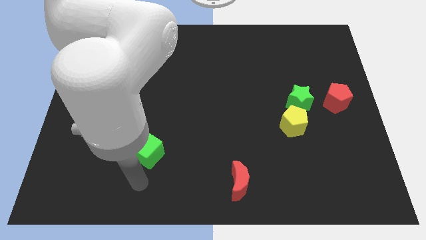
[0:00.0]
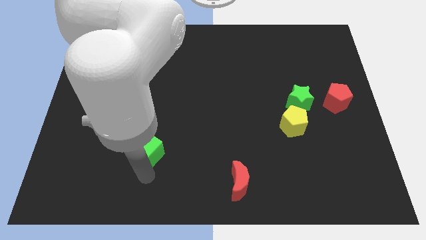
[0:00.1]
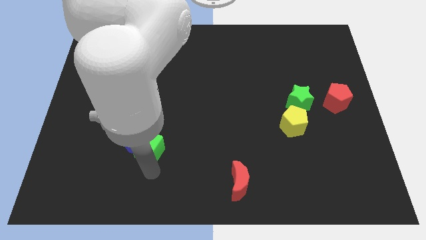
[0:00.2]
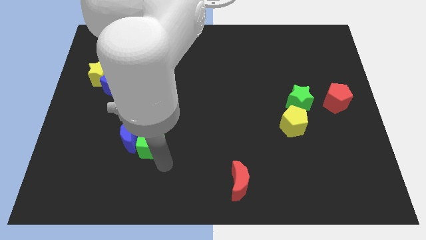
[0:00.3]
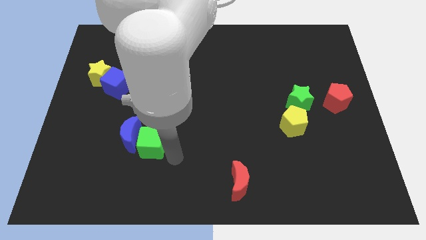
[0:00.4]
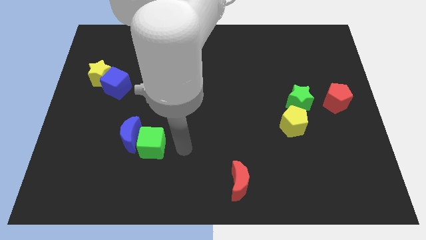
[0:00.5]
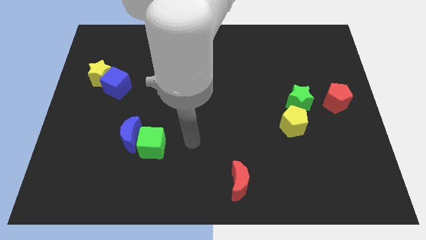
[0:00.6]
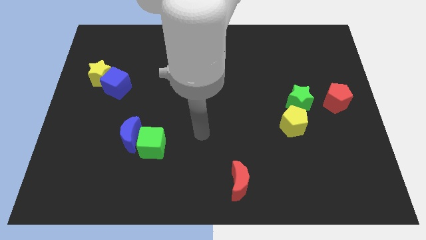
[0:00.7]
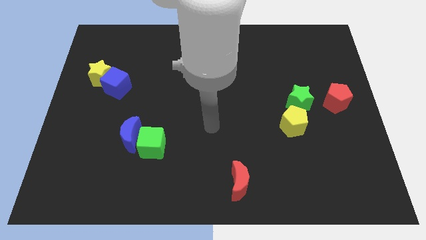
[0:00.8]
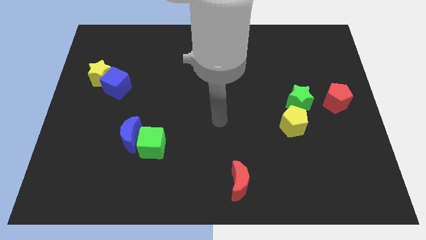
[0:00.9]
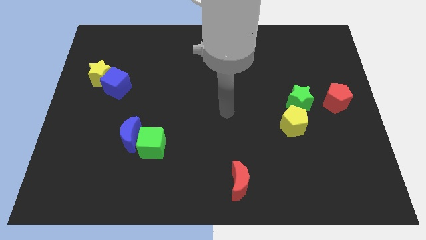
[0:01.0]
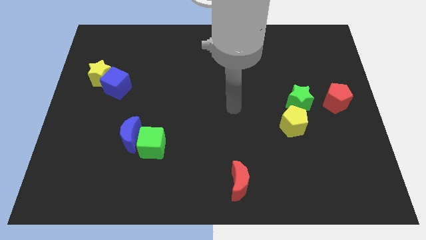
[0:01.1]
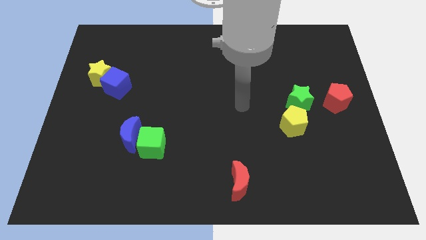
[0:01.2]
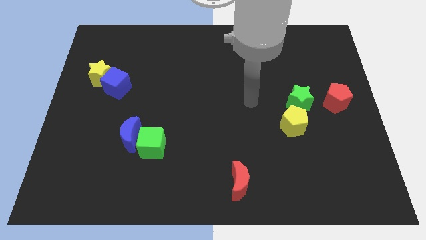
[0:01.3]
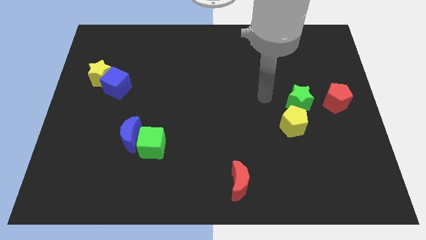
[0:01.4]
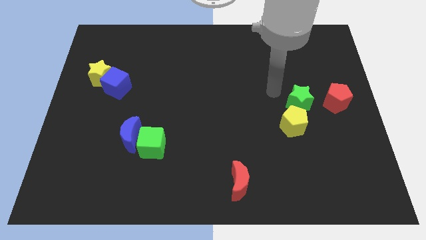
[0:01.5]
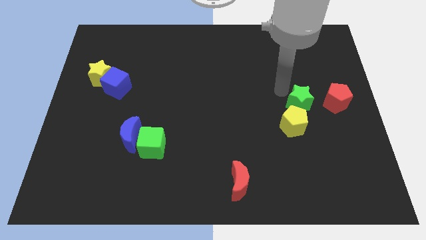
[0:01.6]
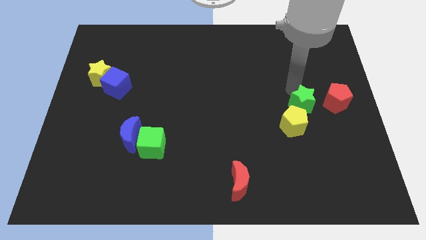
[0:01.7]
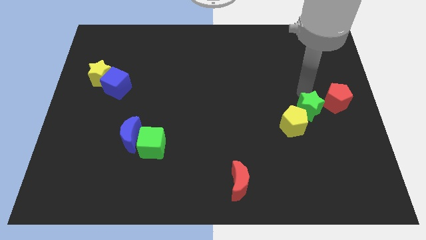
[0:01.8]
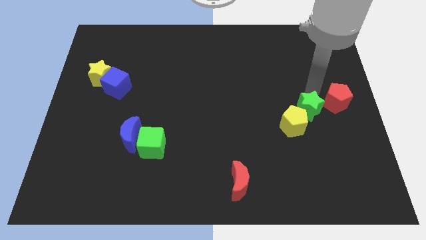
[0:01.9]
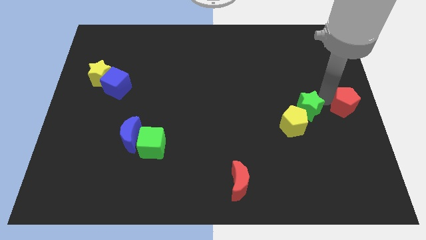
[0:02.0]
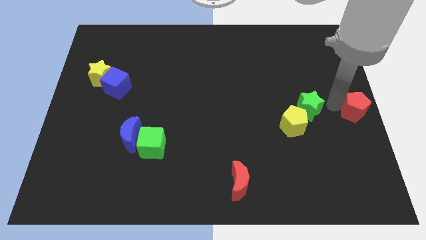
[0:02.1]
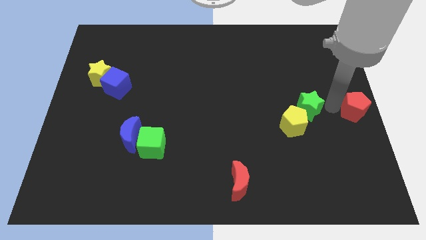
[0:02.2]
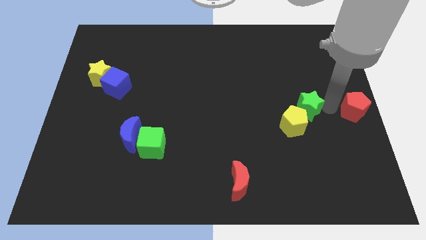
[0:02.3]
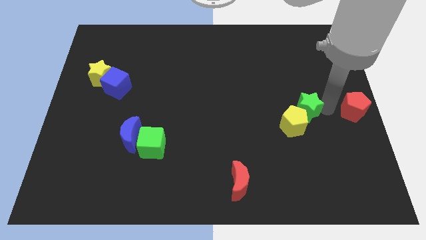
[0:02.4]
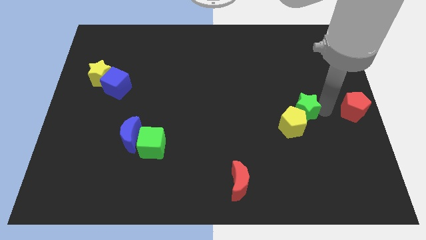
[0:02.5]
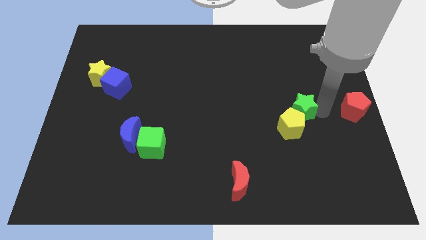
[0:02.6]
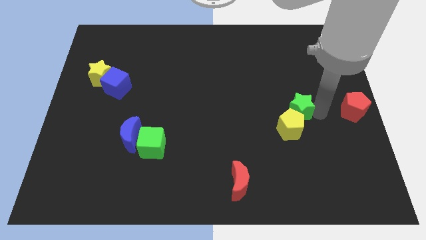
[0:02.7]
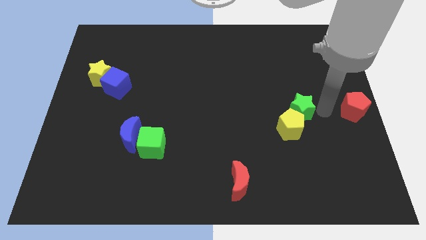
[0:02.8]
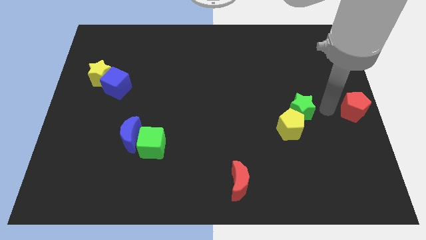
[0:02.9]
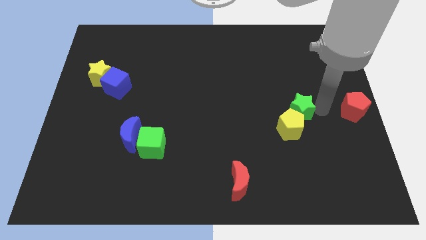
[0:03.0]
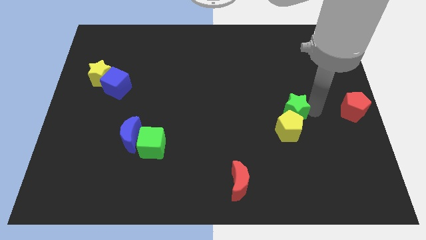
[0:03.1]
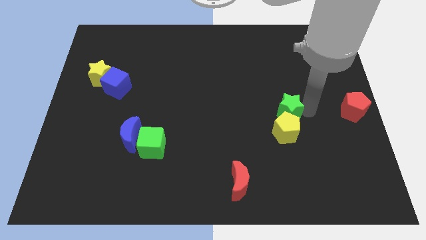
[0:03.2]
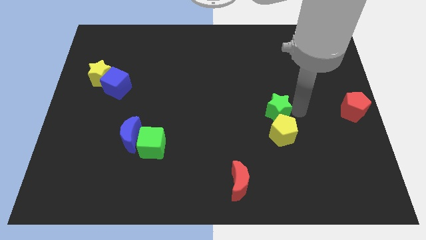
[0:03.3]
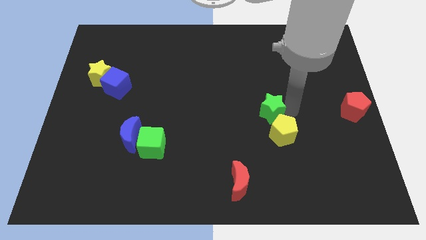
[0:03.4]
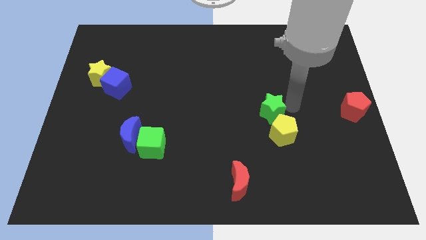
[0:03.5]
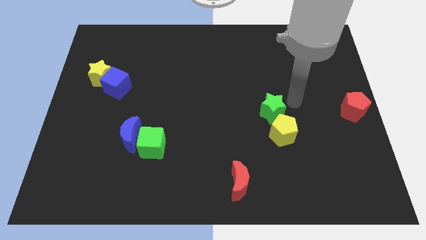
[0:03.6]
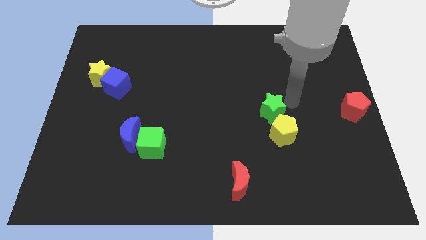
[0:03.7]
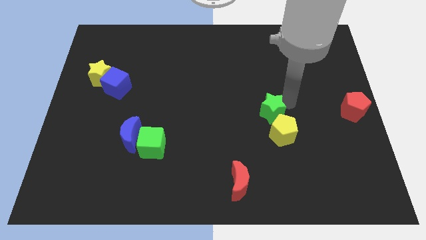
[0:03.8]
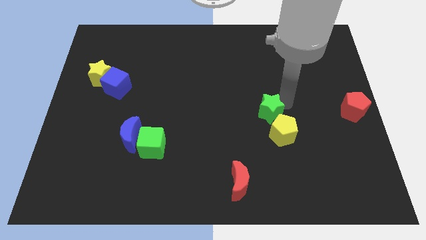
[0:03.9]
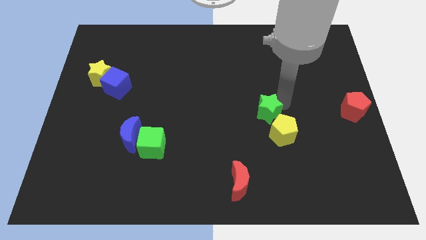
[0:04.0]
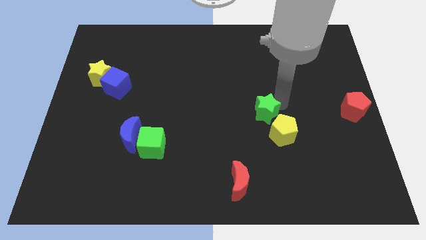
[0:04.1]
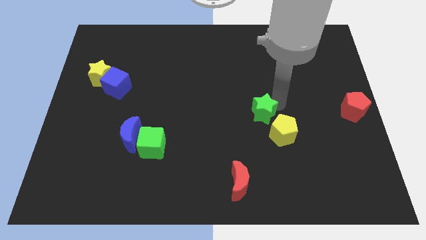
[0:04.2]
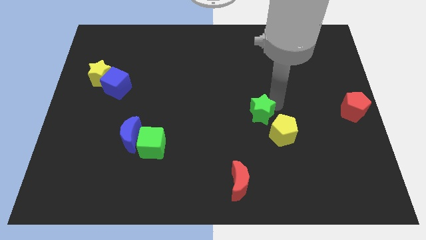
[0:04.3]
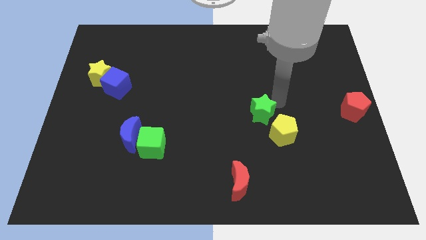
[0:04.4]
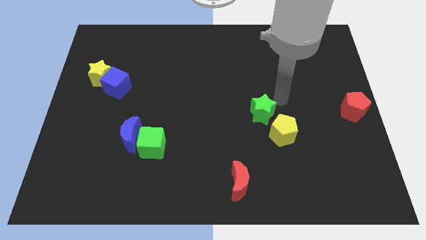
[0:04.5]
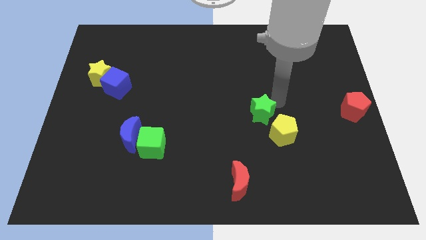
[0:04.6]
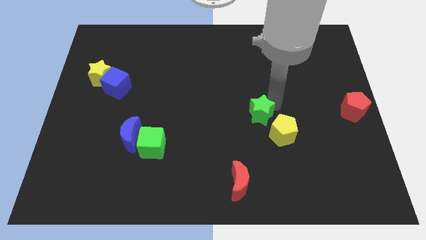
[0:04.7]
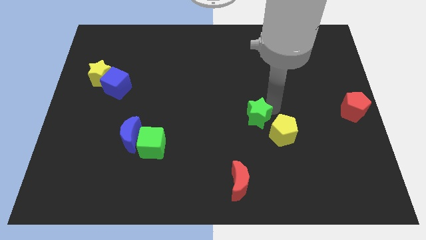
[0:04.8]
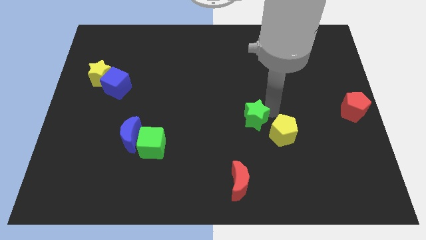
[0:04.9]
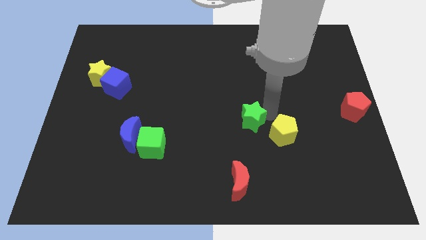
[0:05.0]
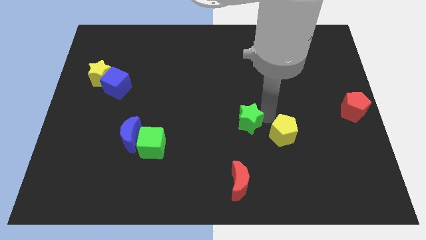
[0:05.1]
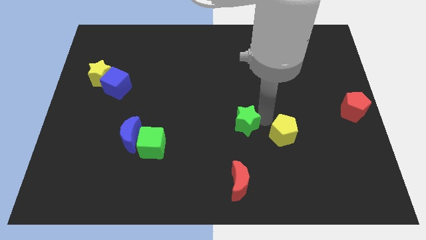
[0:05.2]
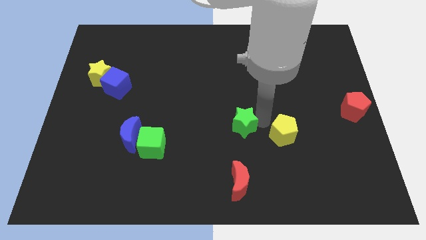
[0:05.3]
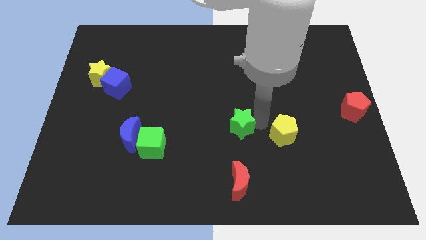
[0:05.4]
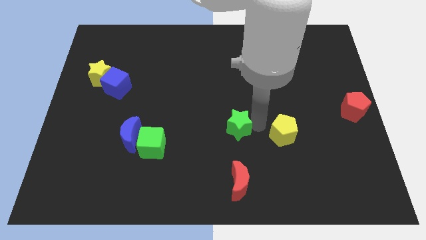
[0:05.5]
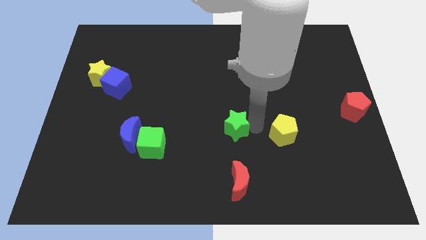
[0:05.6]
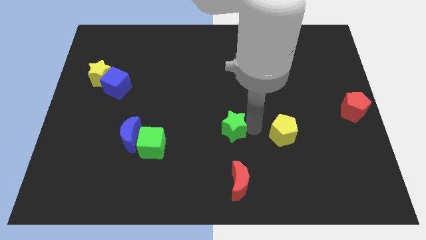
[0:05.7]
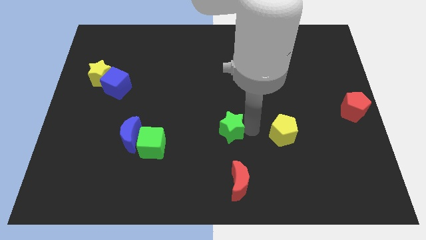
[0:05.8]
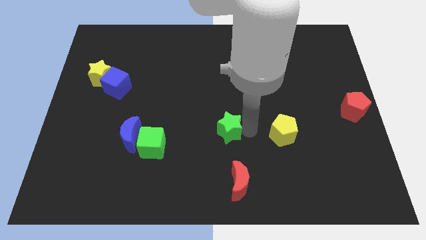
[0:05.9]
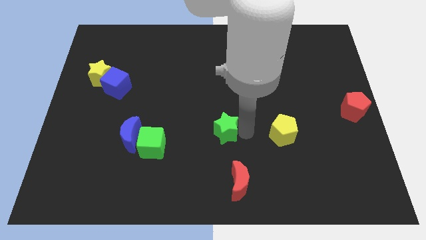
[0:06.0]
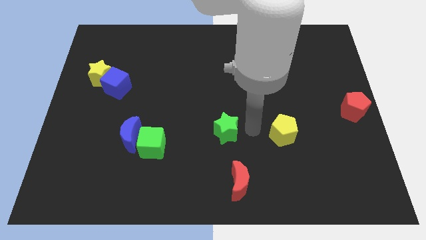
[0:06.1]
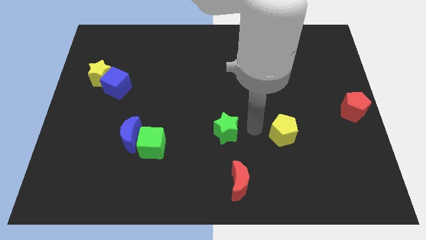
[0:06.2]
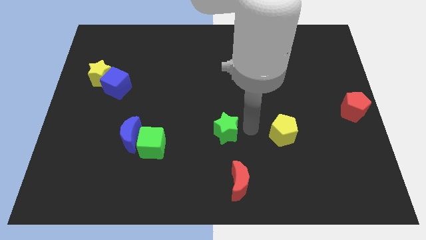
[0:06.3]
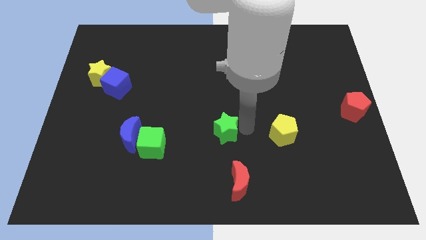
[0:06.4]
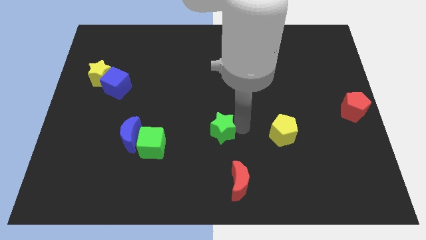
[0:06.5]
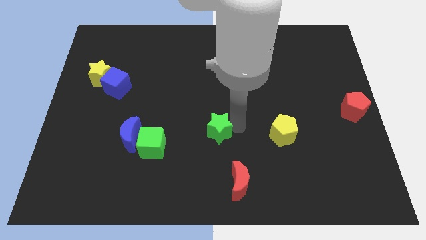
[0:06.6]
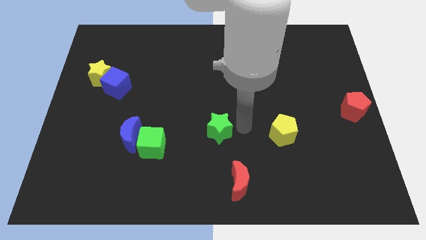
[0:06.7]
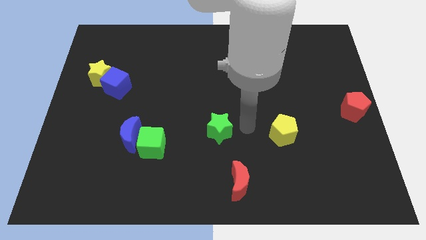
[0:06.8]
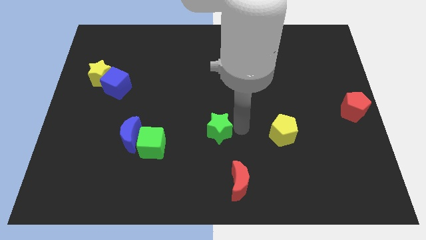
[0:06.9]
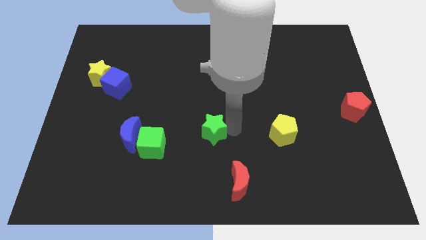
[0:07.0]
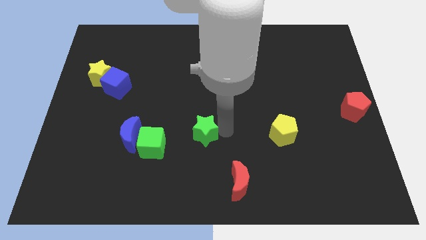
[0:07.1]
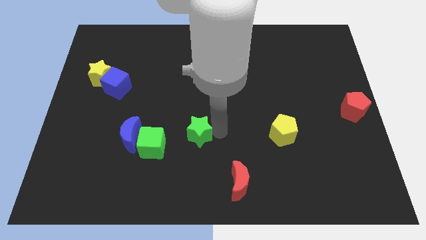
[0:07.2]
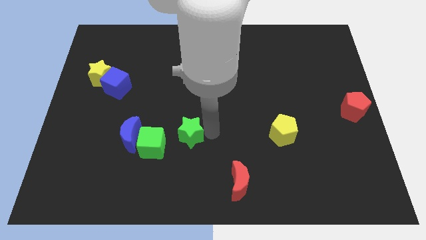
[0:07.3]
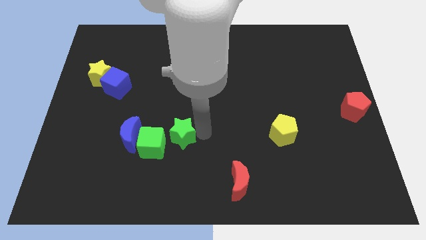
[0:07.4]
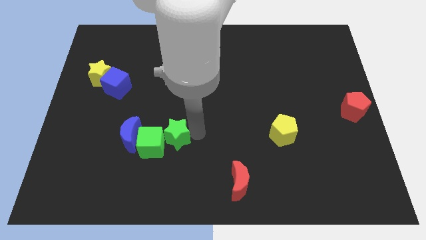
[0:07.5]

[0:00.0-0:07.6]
push the green star towards the green cube
